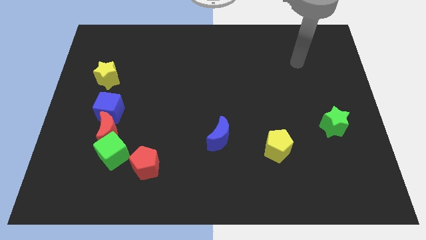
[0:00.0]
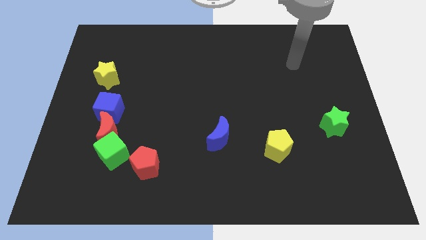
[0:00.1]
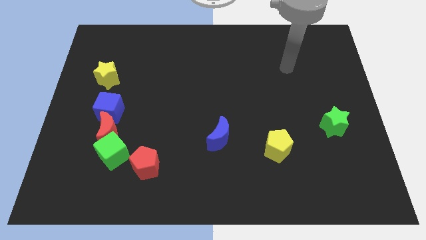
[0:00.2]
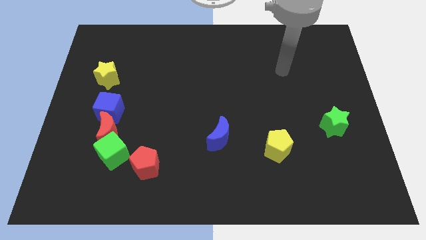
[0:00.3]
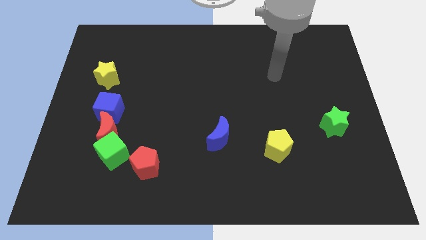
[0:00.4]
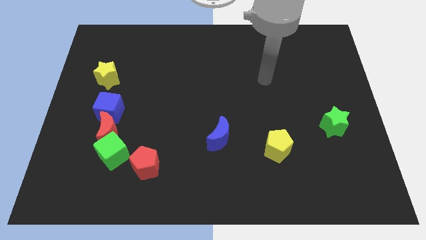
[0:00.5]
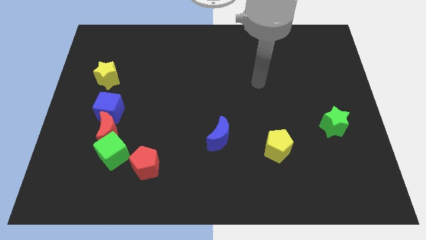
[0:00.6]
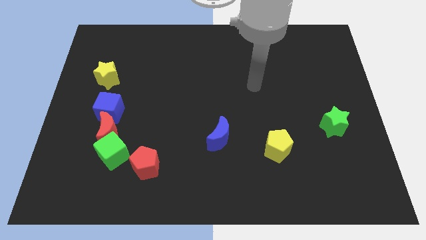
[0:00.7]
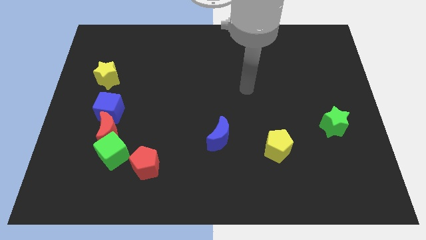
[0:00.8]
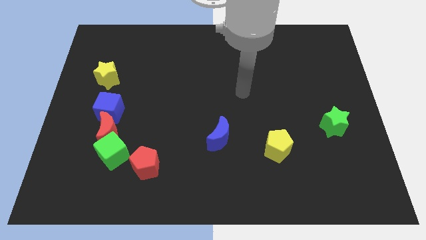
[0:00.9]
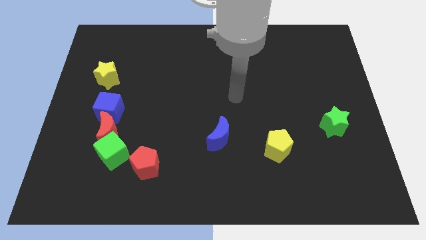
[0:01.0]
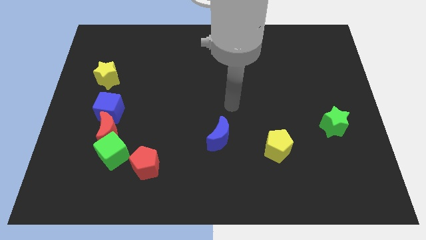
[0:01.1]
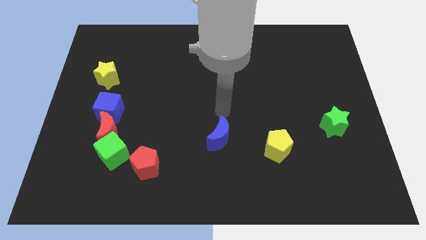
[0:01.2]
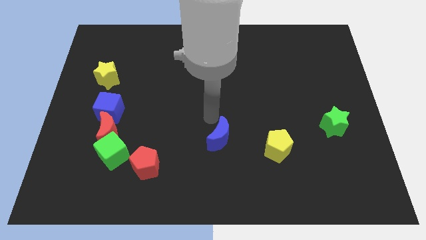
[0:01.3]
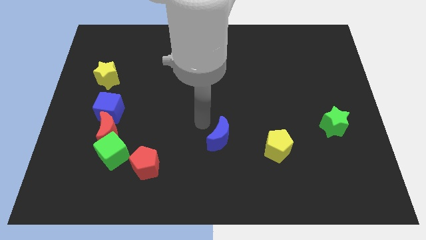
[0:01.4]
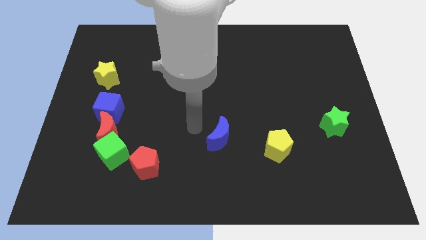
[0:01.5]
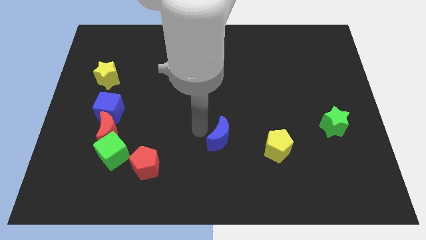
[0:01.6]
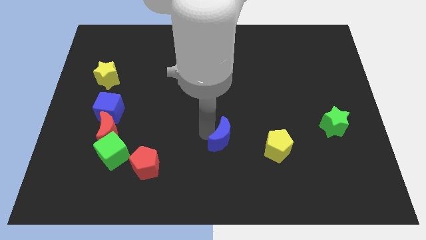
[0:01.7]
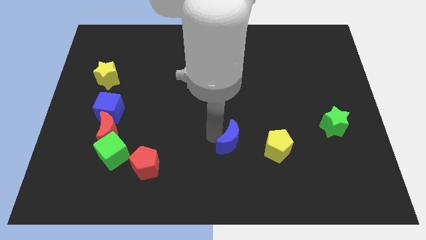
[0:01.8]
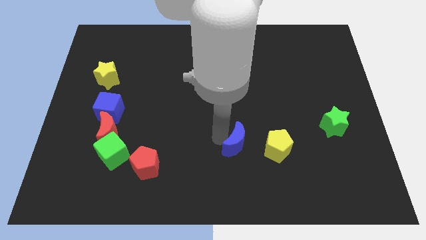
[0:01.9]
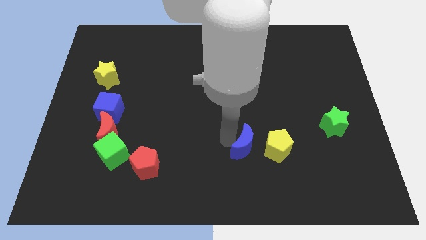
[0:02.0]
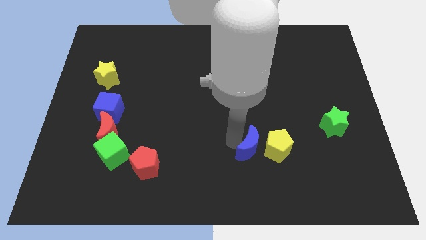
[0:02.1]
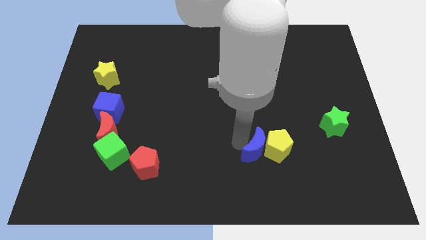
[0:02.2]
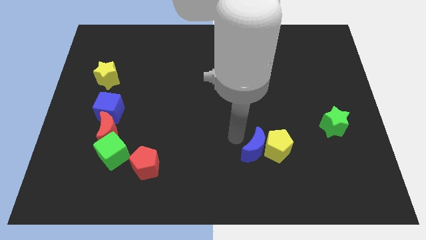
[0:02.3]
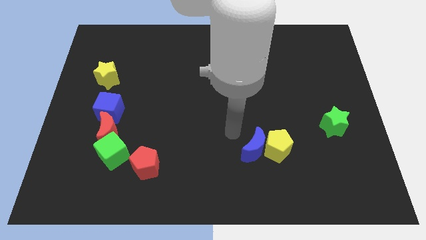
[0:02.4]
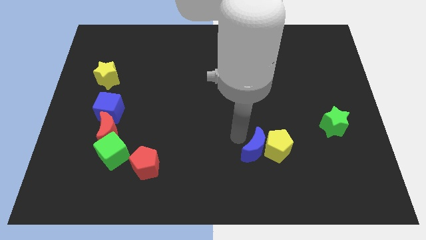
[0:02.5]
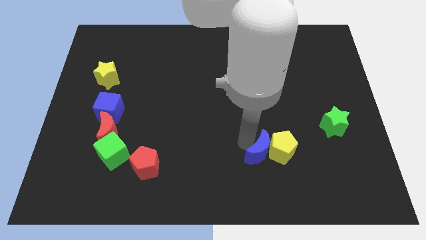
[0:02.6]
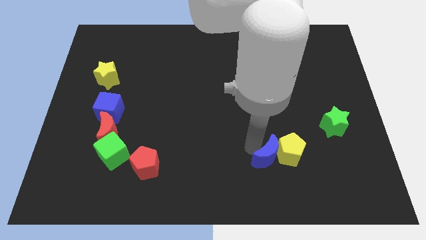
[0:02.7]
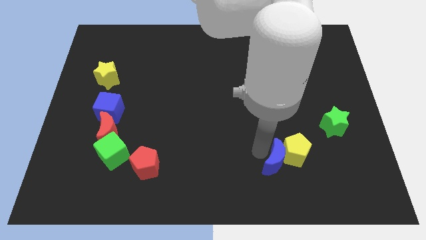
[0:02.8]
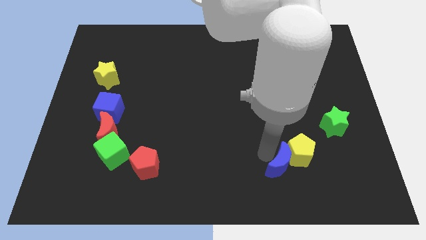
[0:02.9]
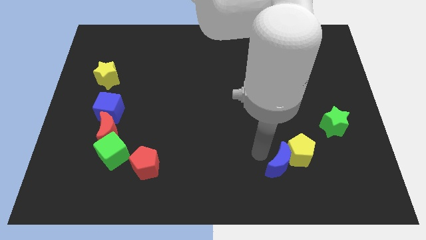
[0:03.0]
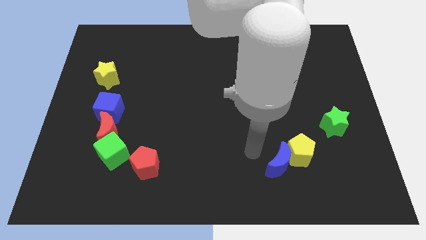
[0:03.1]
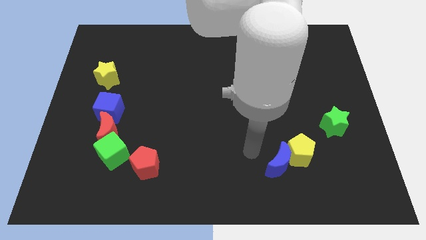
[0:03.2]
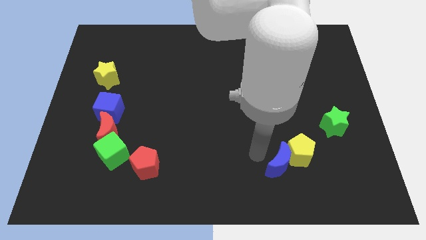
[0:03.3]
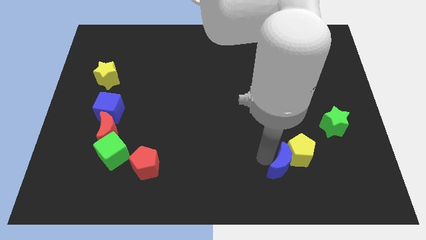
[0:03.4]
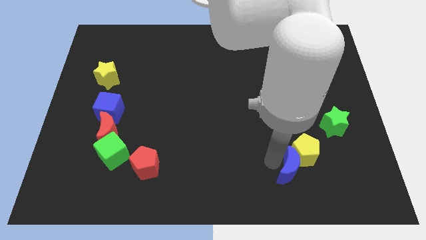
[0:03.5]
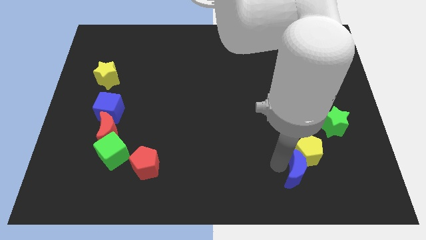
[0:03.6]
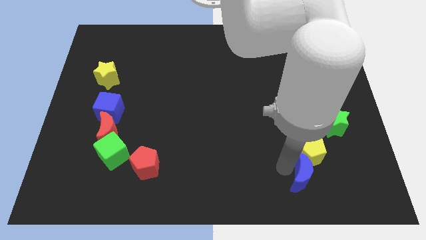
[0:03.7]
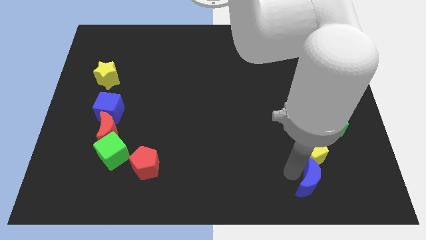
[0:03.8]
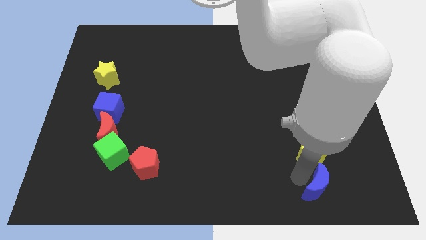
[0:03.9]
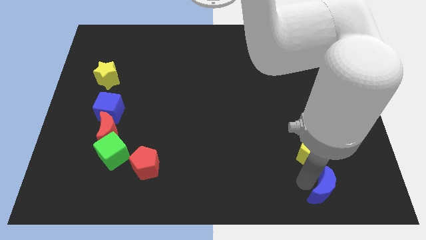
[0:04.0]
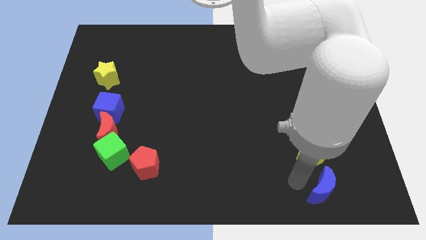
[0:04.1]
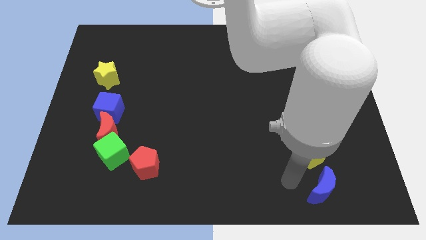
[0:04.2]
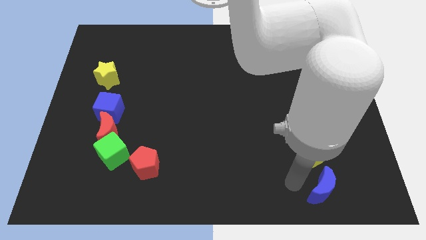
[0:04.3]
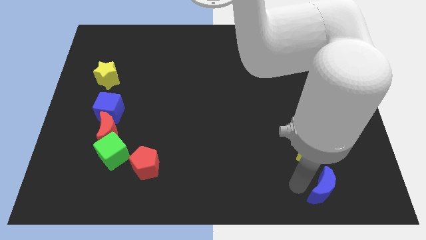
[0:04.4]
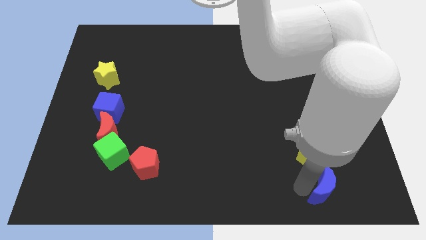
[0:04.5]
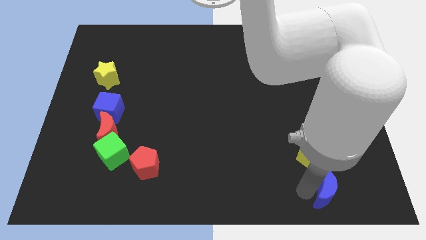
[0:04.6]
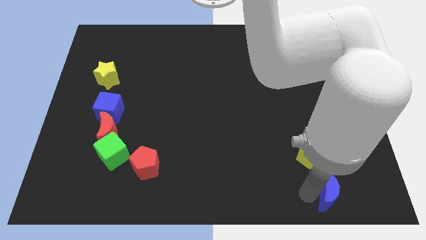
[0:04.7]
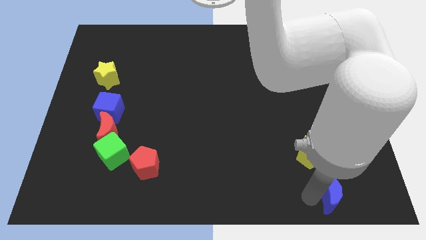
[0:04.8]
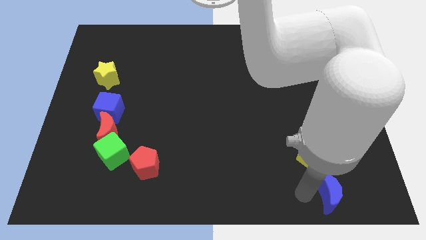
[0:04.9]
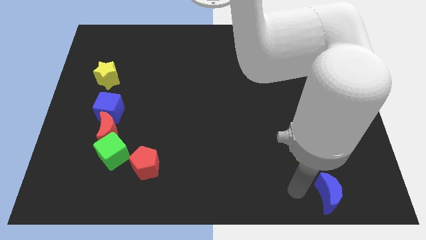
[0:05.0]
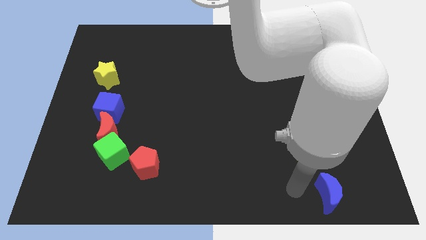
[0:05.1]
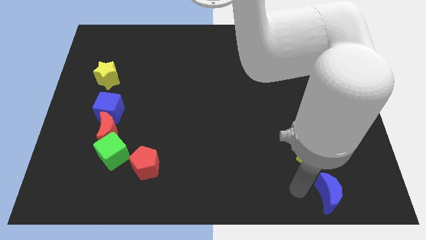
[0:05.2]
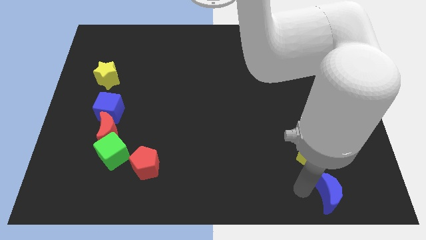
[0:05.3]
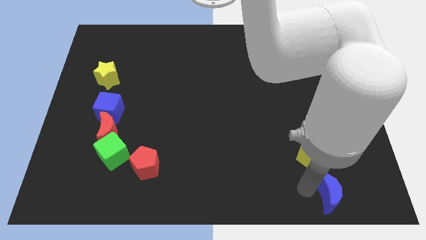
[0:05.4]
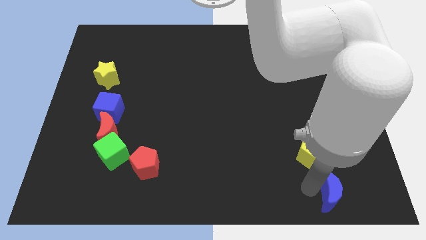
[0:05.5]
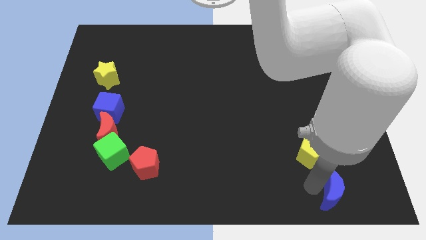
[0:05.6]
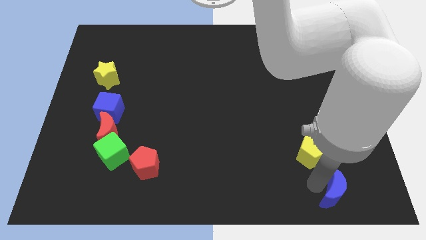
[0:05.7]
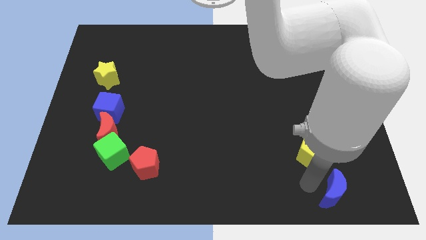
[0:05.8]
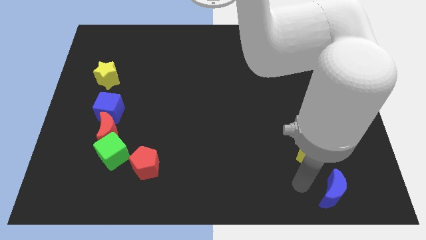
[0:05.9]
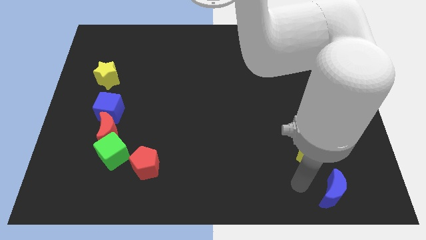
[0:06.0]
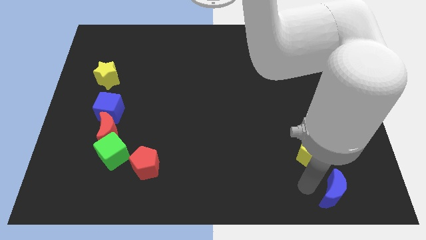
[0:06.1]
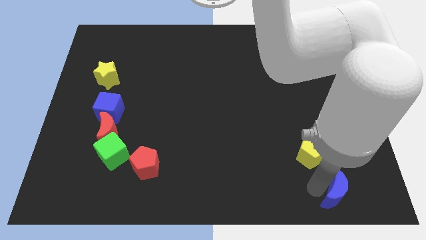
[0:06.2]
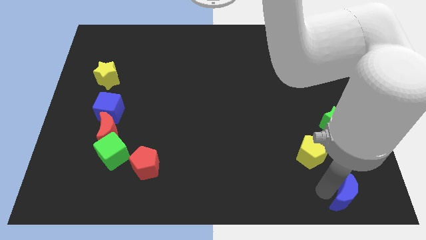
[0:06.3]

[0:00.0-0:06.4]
push the blue moon to the bottom right of the board
